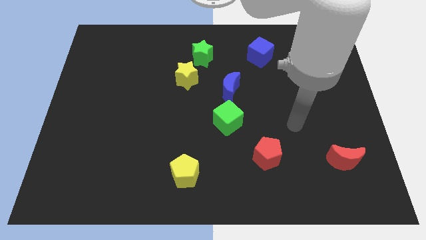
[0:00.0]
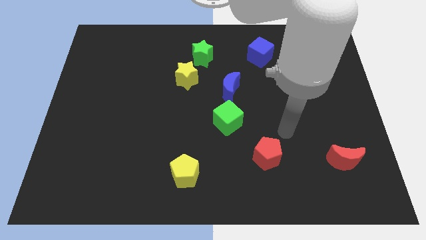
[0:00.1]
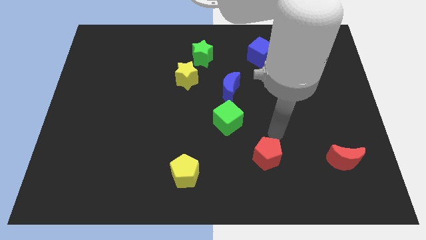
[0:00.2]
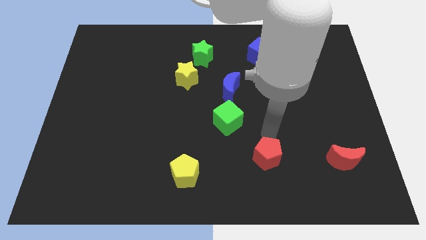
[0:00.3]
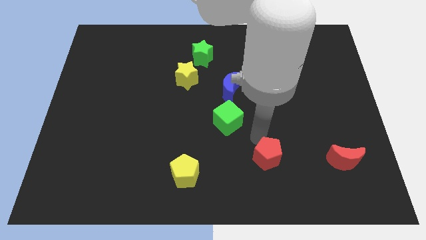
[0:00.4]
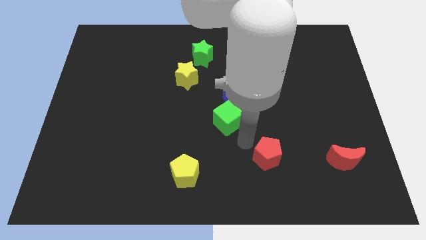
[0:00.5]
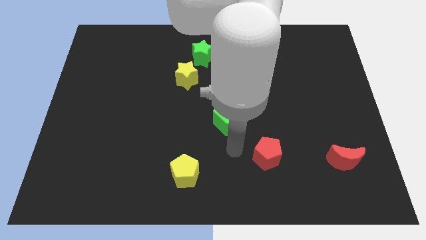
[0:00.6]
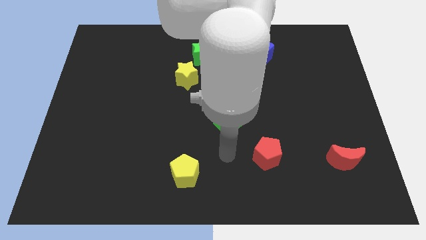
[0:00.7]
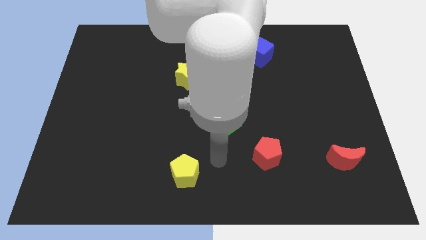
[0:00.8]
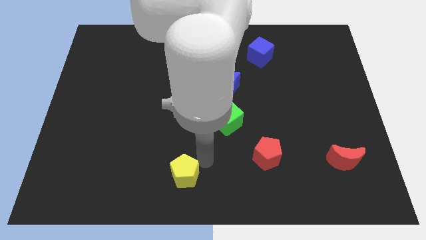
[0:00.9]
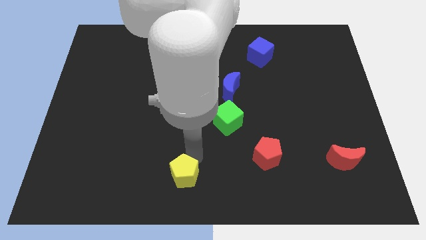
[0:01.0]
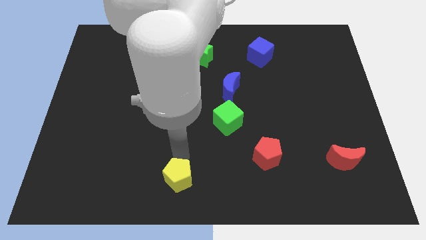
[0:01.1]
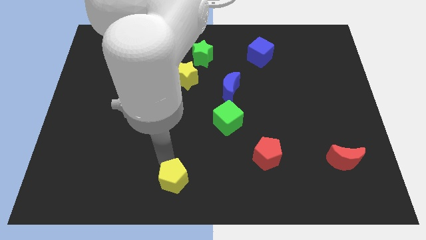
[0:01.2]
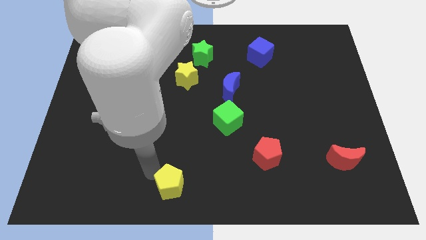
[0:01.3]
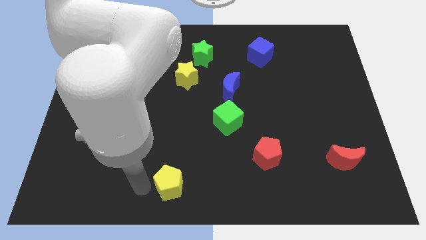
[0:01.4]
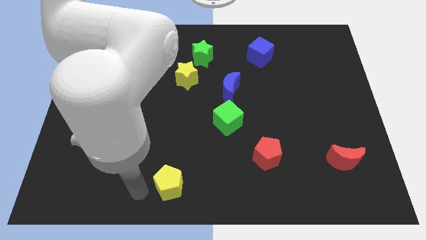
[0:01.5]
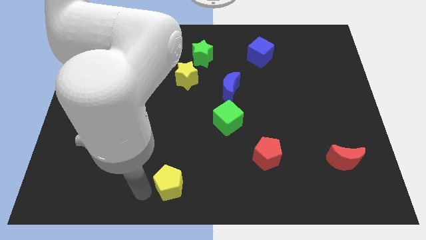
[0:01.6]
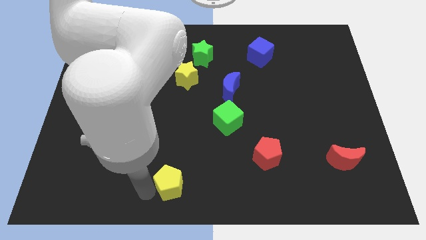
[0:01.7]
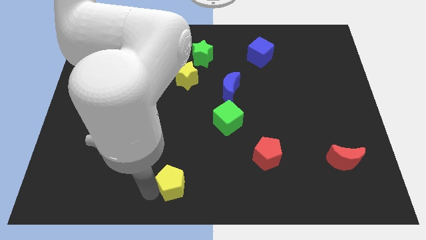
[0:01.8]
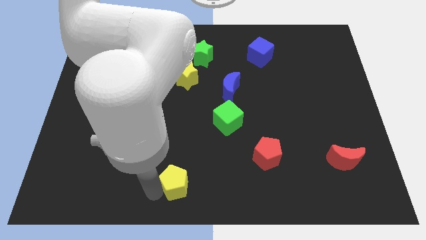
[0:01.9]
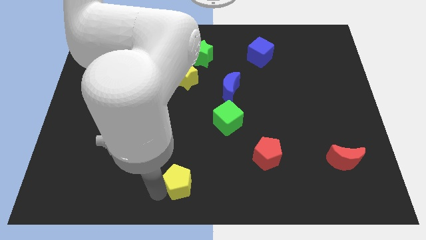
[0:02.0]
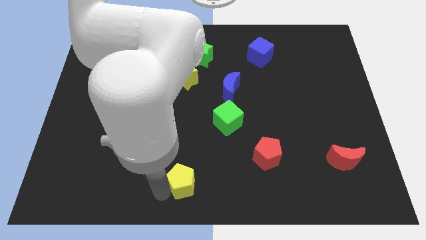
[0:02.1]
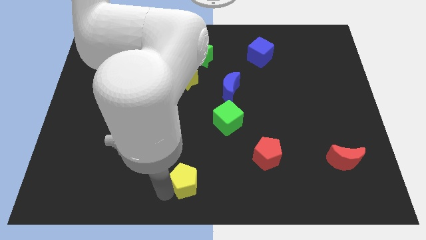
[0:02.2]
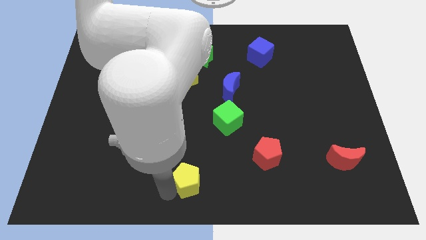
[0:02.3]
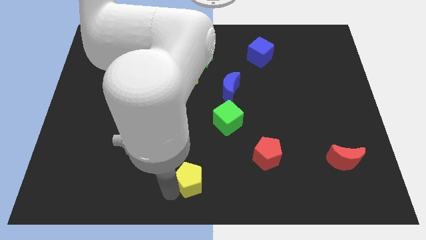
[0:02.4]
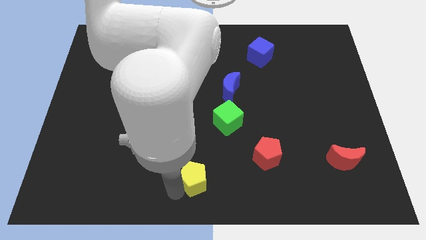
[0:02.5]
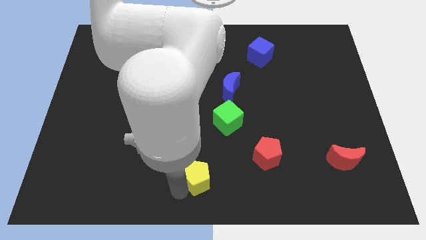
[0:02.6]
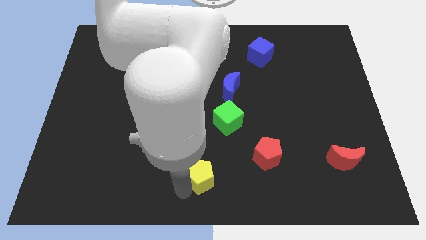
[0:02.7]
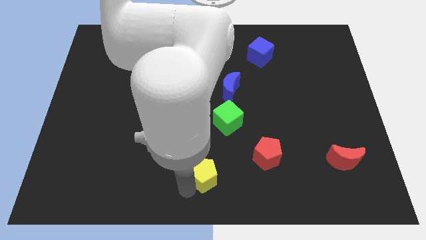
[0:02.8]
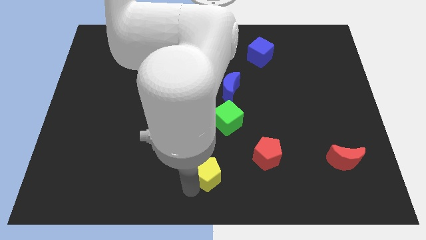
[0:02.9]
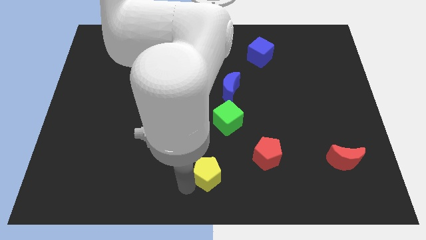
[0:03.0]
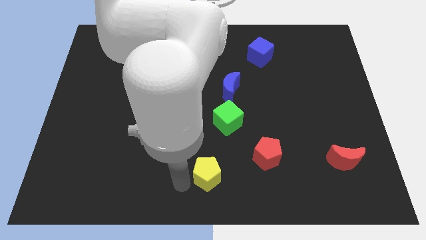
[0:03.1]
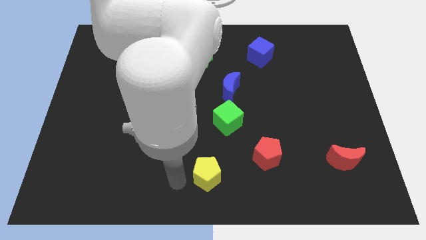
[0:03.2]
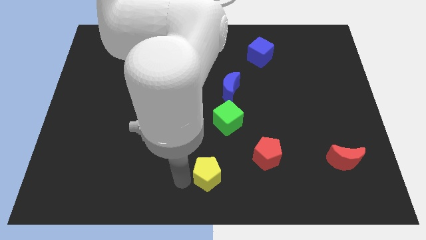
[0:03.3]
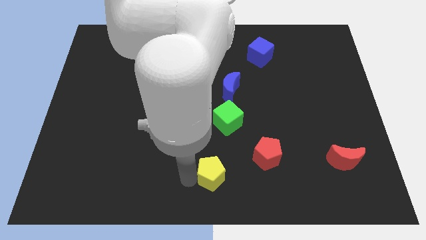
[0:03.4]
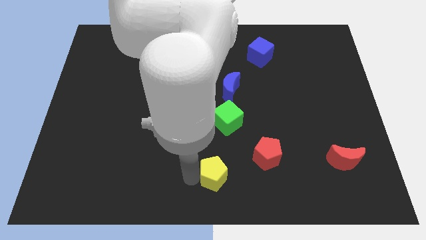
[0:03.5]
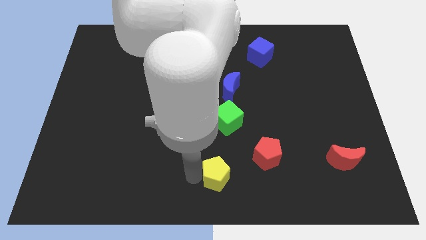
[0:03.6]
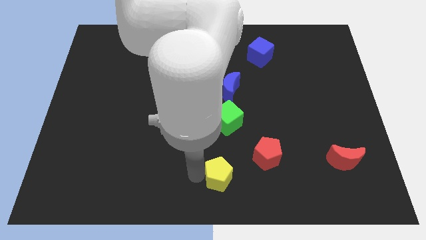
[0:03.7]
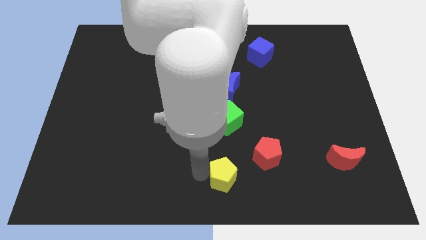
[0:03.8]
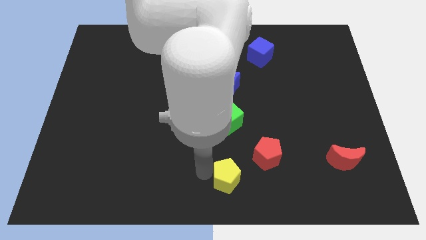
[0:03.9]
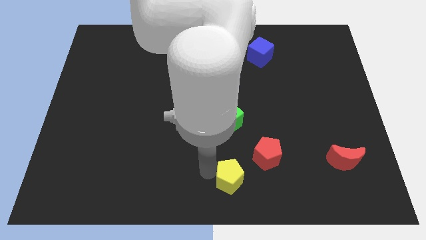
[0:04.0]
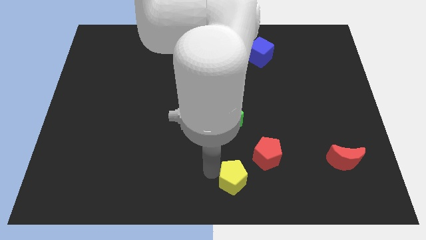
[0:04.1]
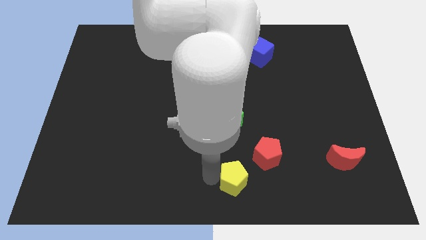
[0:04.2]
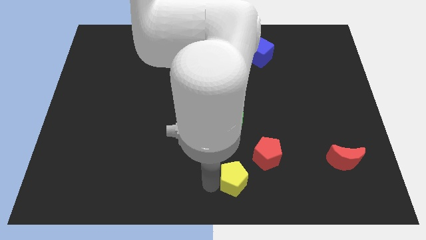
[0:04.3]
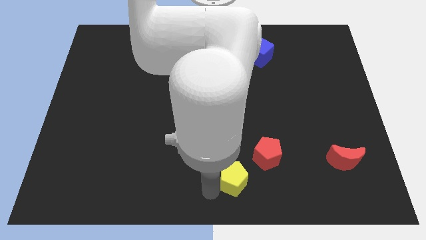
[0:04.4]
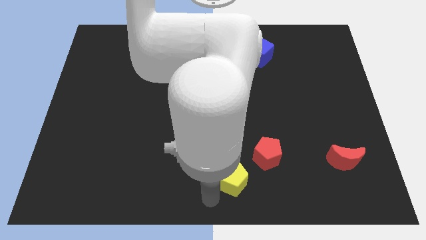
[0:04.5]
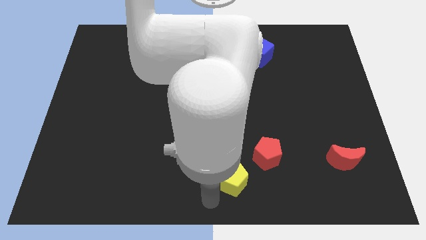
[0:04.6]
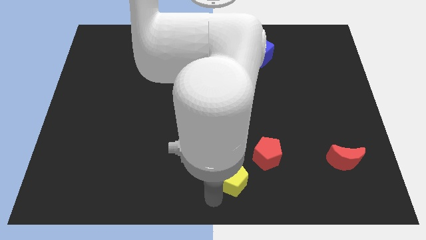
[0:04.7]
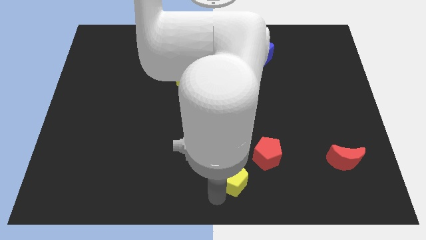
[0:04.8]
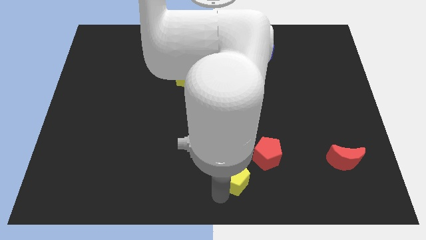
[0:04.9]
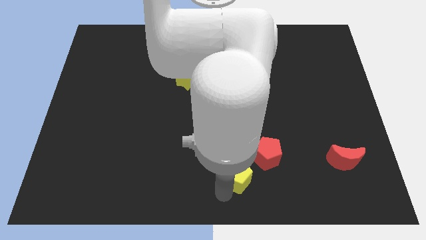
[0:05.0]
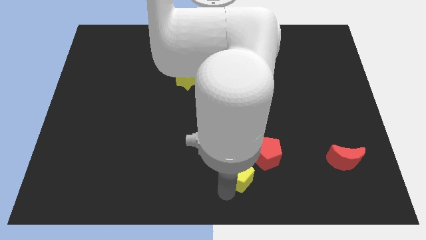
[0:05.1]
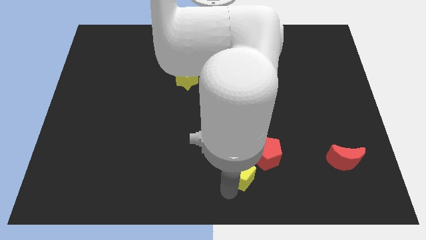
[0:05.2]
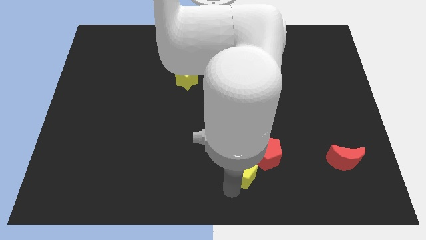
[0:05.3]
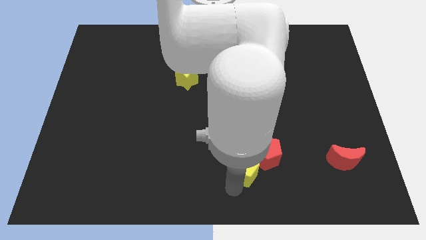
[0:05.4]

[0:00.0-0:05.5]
push the yellow pentagon to the red pentagon

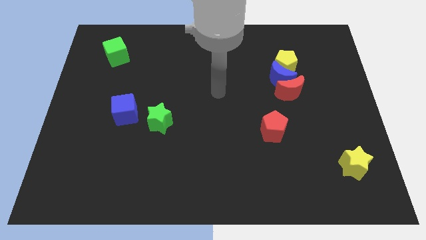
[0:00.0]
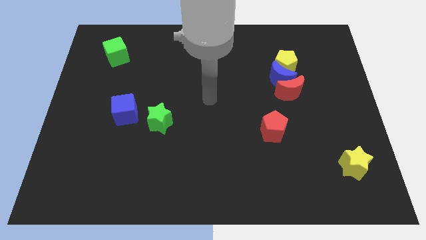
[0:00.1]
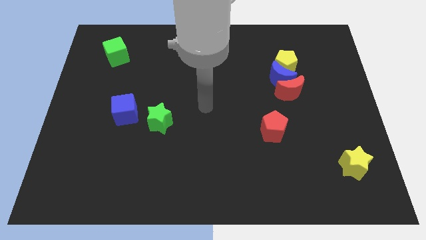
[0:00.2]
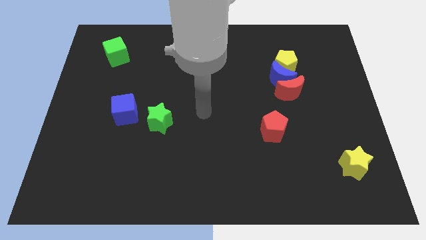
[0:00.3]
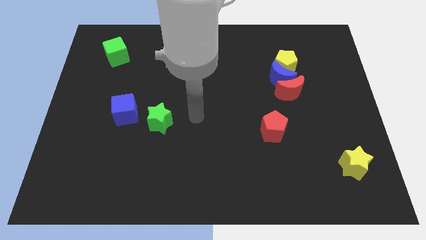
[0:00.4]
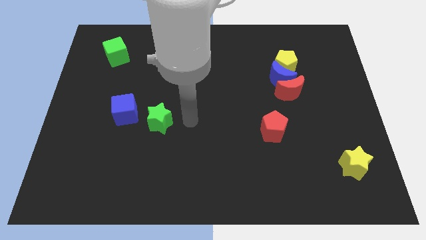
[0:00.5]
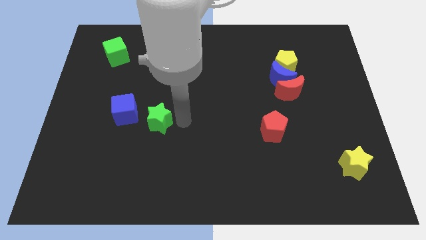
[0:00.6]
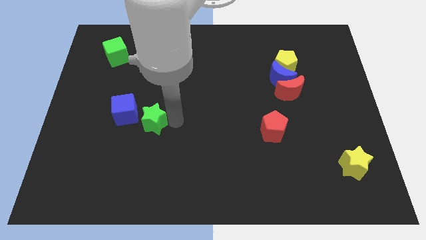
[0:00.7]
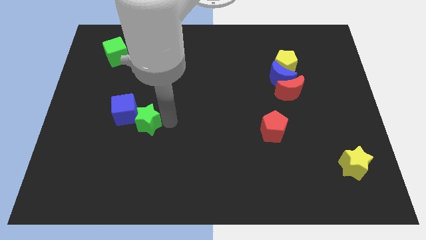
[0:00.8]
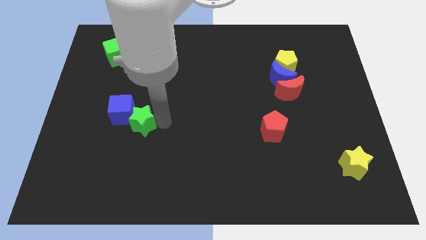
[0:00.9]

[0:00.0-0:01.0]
put the green star towards the blue cube

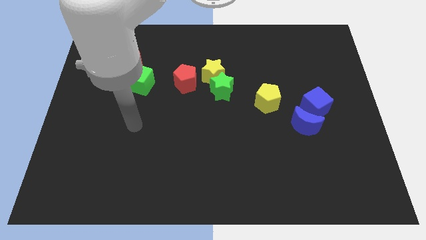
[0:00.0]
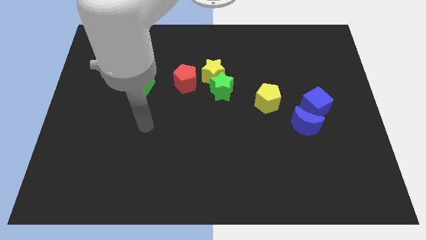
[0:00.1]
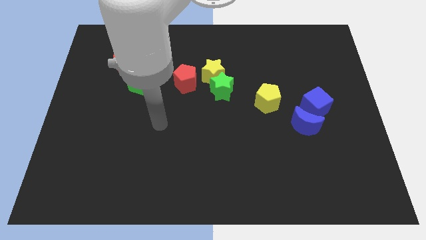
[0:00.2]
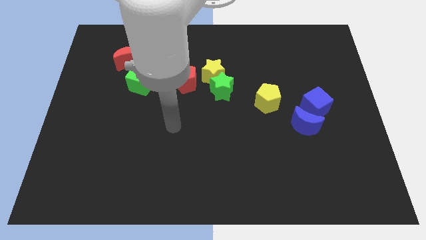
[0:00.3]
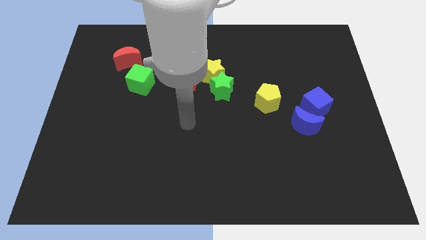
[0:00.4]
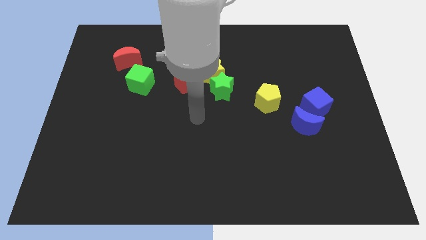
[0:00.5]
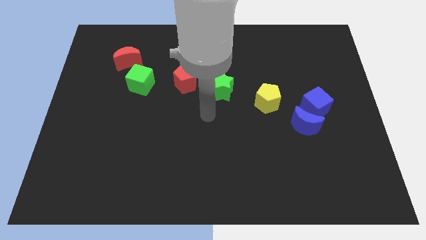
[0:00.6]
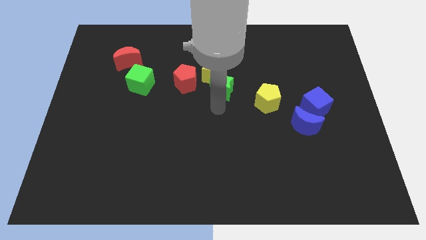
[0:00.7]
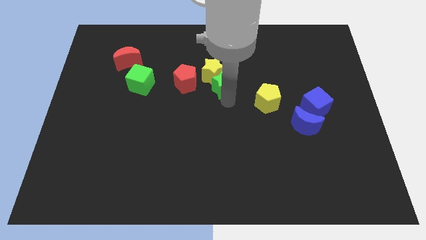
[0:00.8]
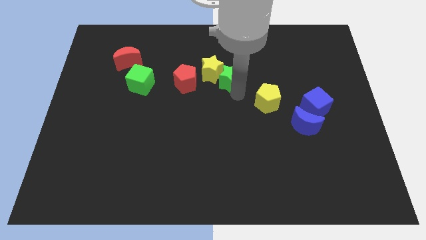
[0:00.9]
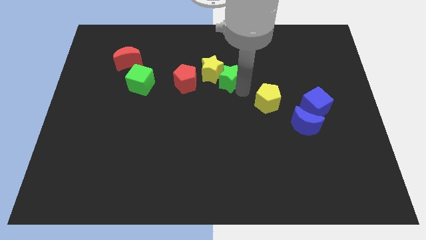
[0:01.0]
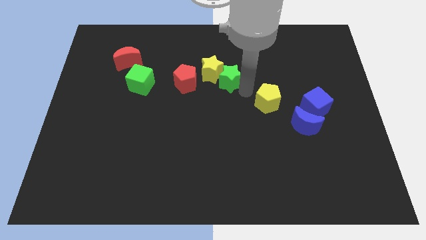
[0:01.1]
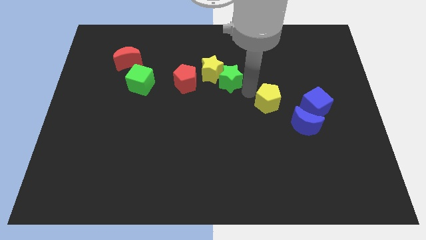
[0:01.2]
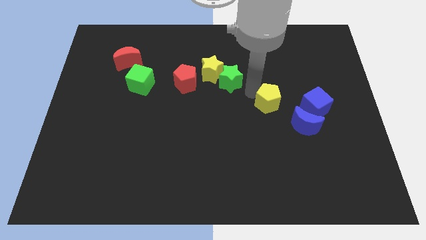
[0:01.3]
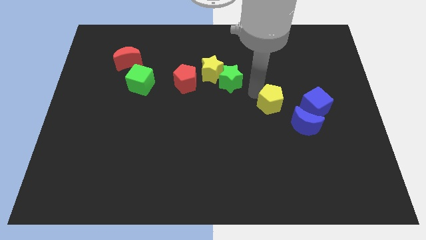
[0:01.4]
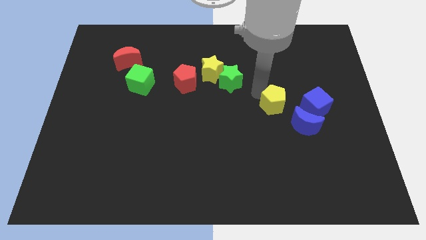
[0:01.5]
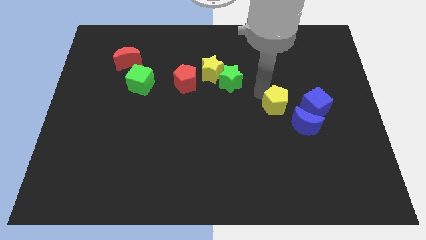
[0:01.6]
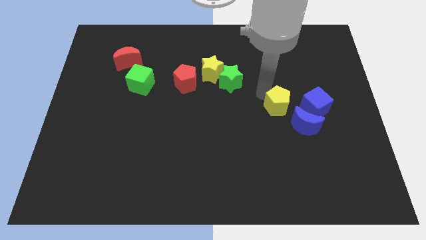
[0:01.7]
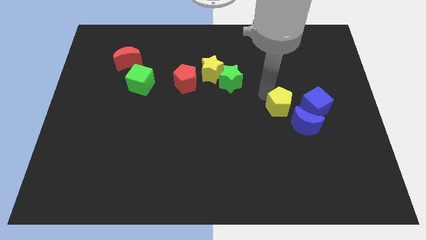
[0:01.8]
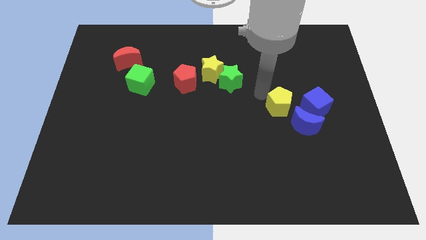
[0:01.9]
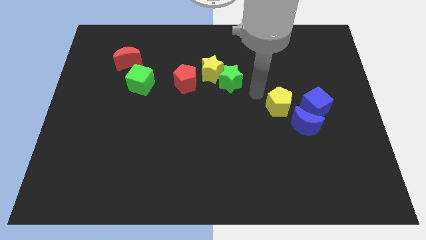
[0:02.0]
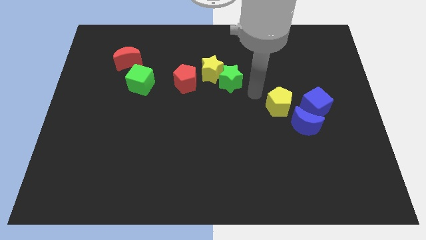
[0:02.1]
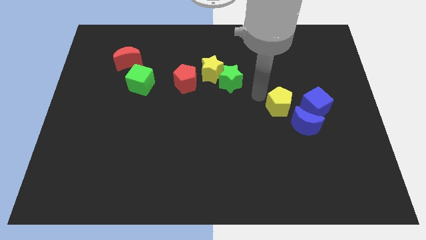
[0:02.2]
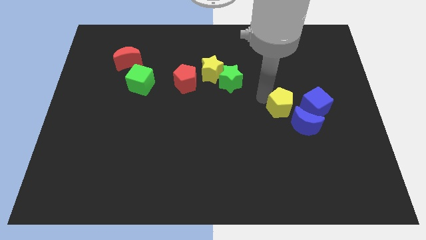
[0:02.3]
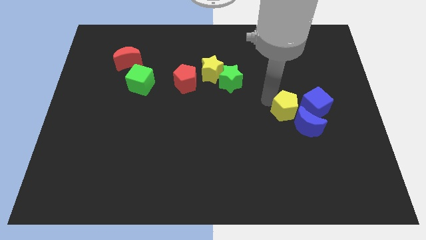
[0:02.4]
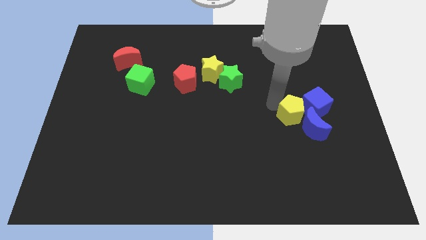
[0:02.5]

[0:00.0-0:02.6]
move the yellow pentagon next to the blue cube
